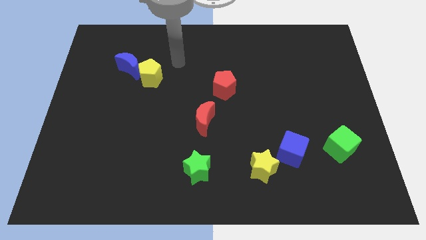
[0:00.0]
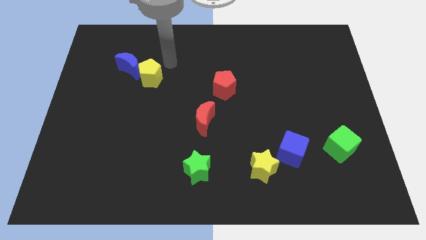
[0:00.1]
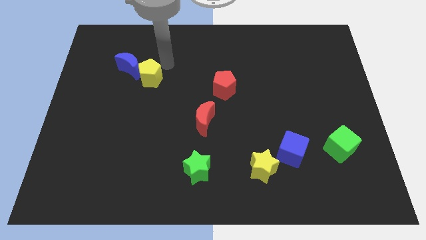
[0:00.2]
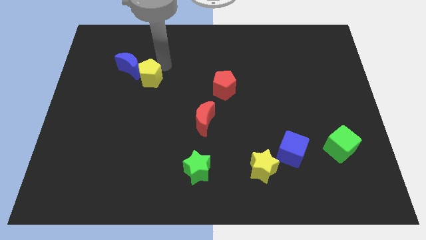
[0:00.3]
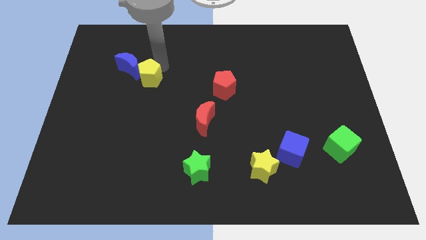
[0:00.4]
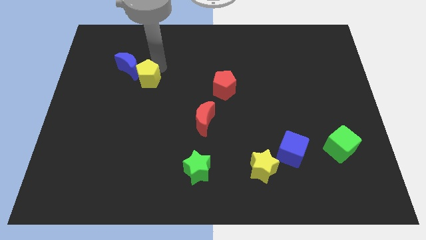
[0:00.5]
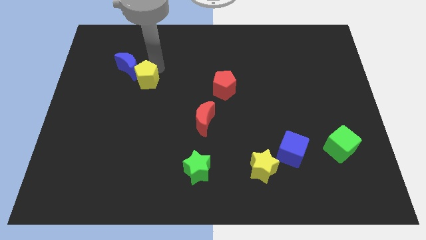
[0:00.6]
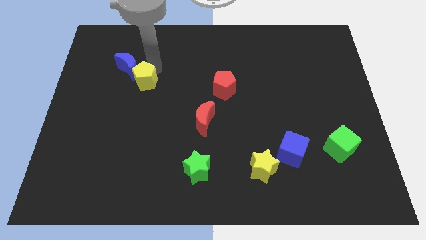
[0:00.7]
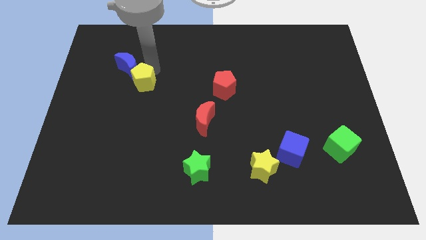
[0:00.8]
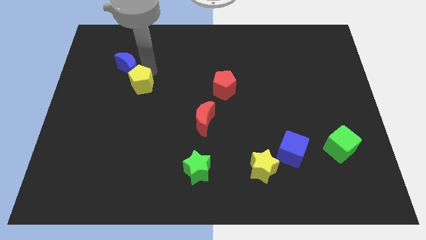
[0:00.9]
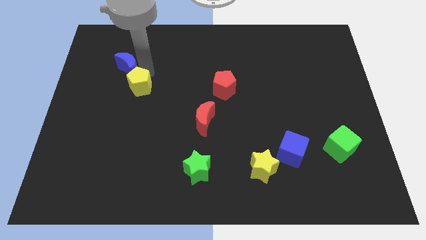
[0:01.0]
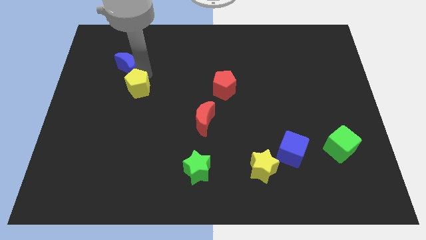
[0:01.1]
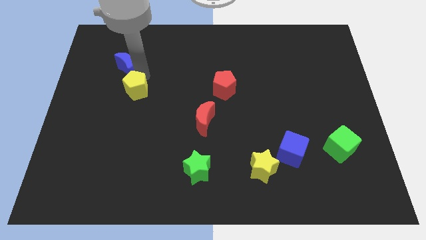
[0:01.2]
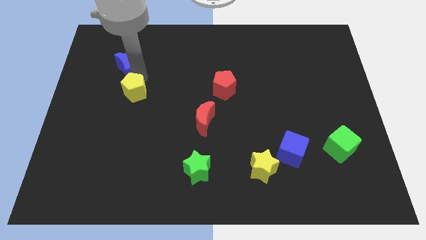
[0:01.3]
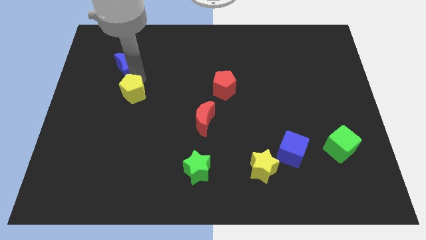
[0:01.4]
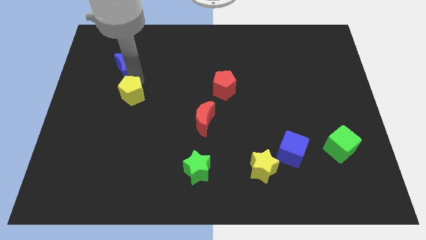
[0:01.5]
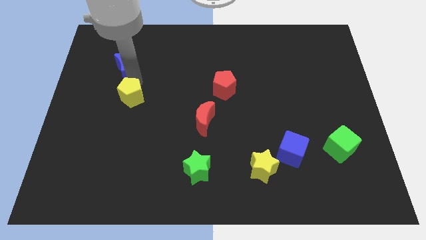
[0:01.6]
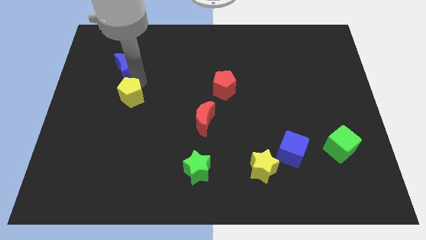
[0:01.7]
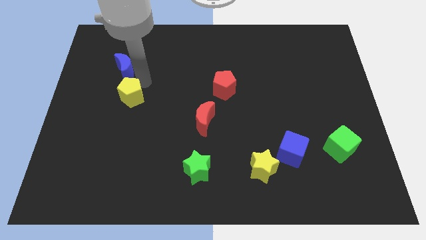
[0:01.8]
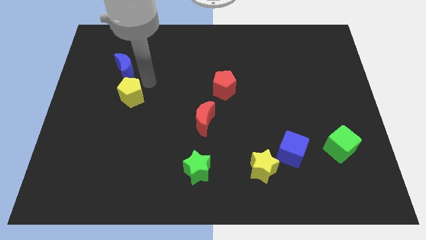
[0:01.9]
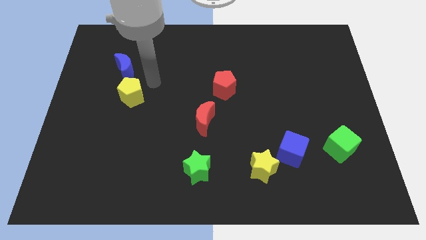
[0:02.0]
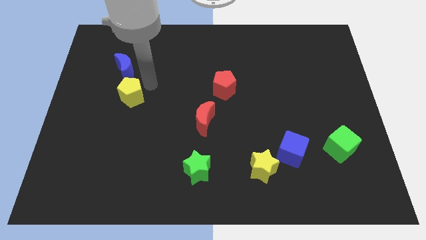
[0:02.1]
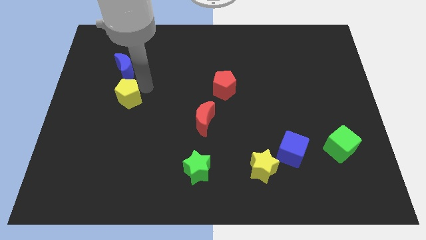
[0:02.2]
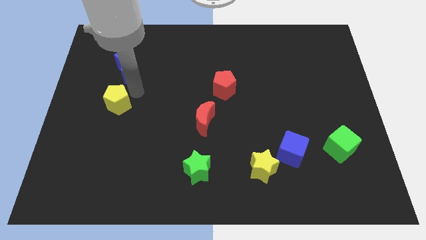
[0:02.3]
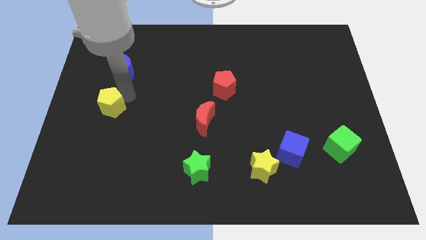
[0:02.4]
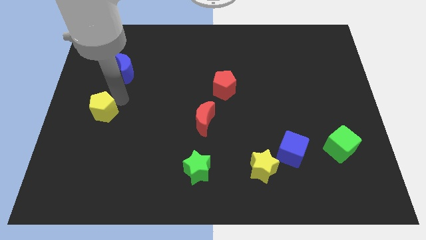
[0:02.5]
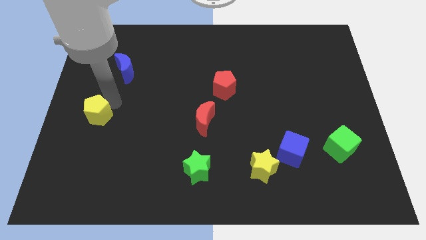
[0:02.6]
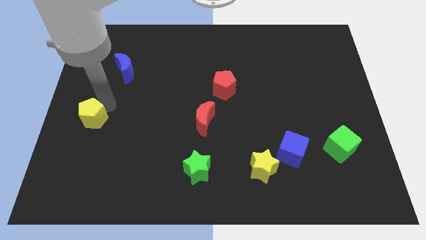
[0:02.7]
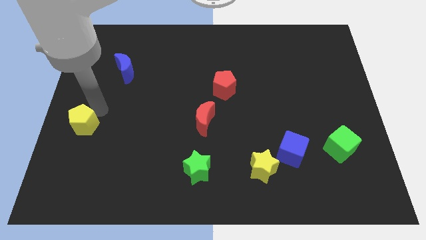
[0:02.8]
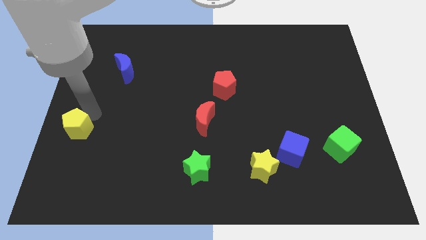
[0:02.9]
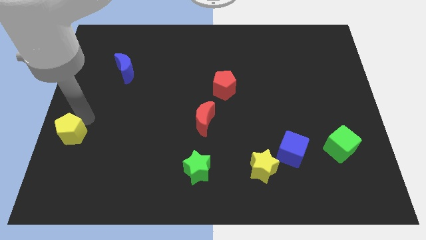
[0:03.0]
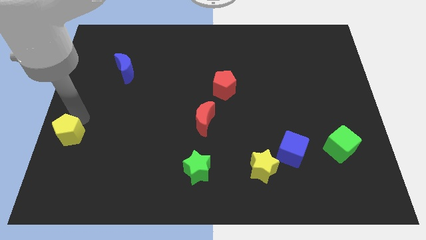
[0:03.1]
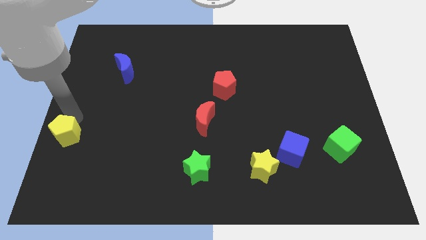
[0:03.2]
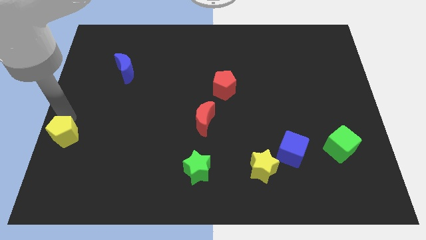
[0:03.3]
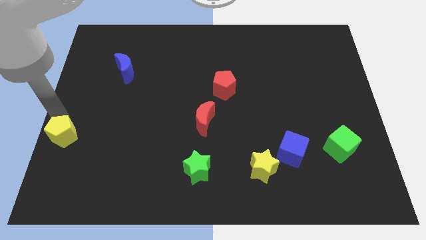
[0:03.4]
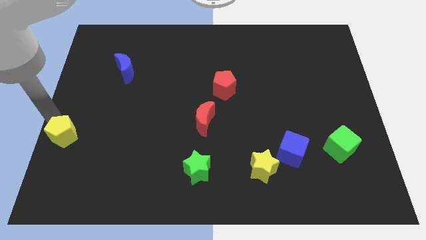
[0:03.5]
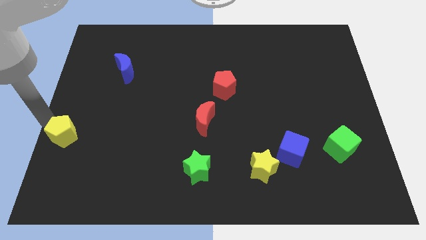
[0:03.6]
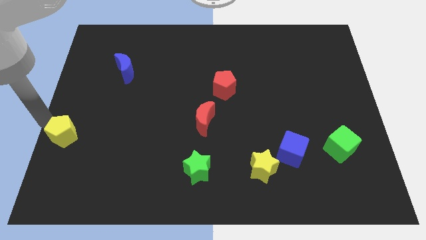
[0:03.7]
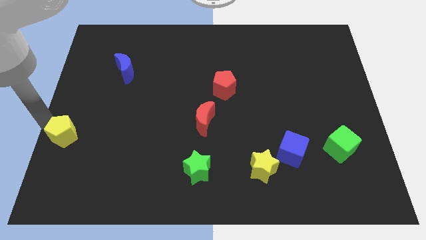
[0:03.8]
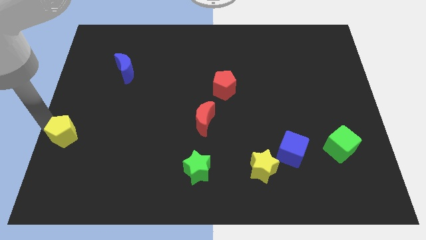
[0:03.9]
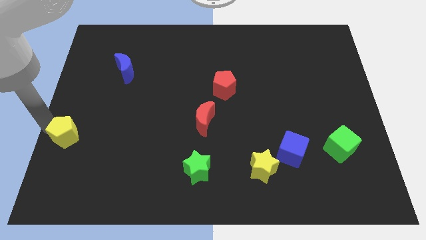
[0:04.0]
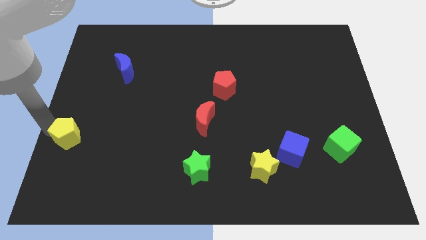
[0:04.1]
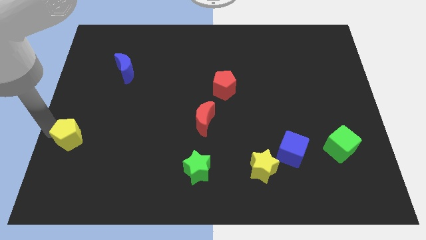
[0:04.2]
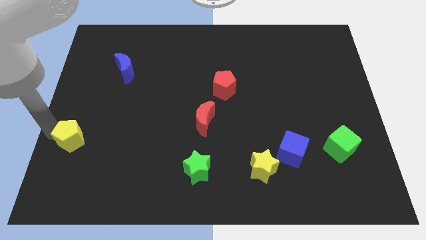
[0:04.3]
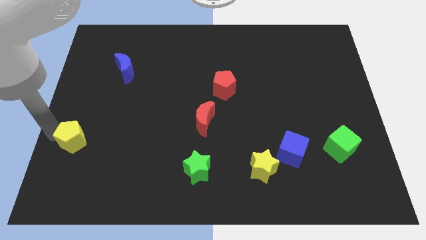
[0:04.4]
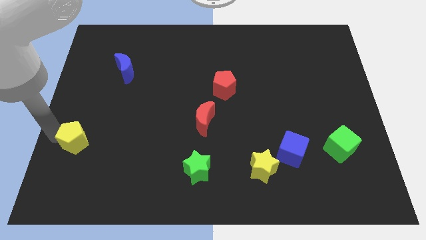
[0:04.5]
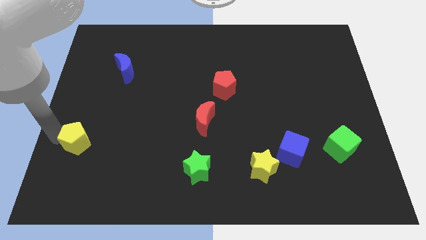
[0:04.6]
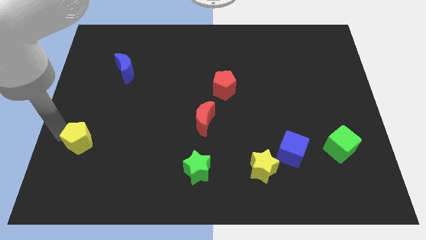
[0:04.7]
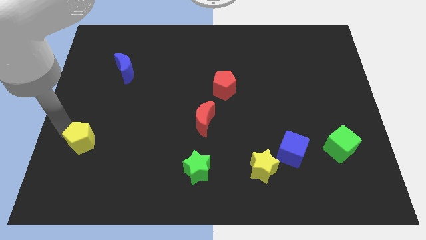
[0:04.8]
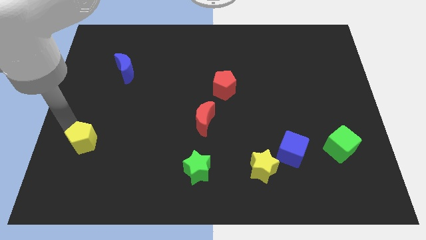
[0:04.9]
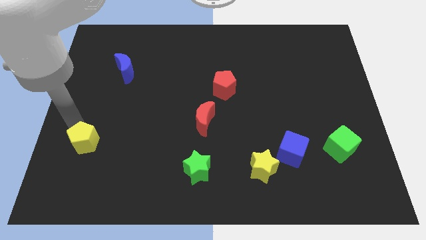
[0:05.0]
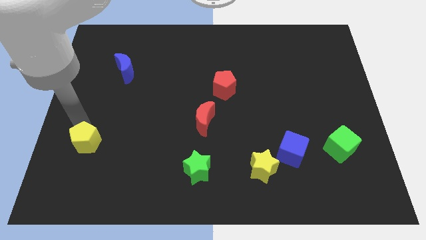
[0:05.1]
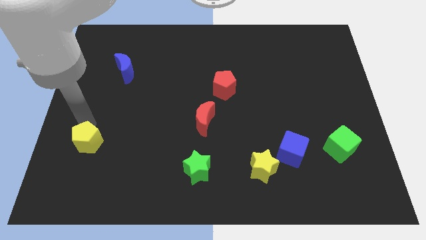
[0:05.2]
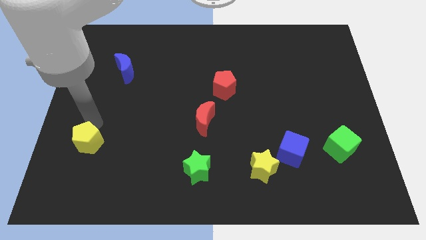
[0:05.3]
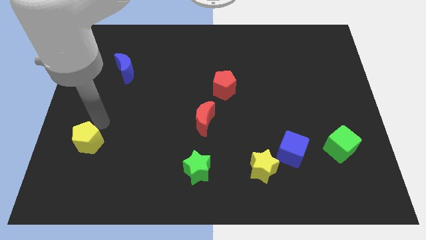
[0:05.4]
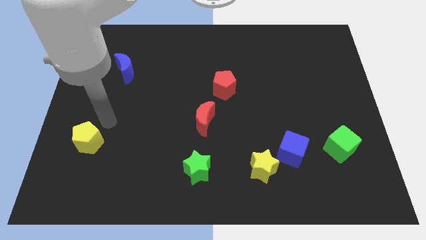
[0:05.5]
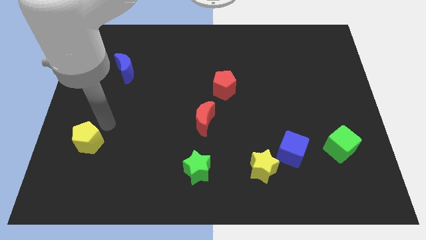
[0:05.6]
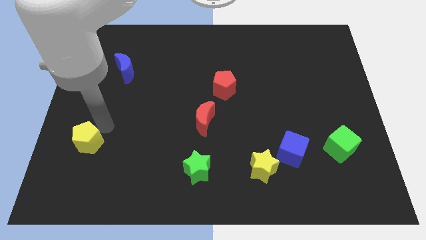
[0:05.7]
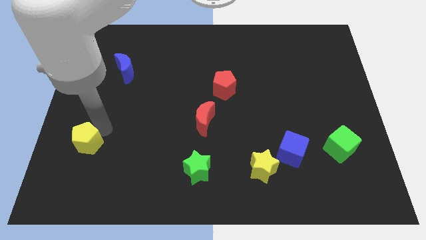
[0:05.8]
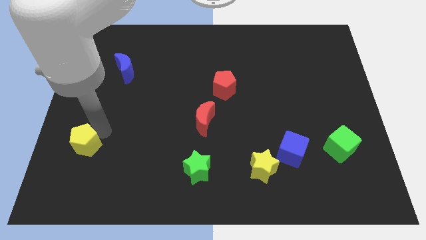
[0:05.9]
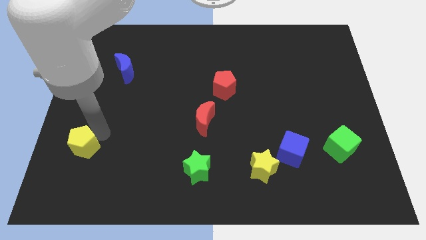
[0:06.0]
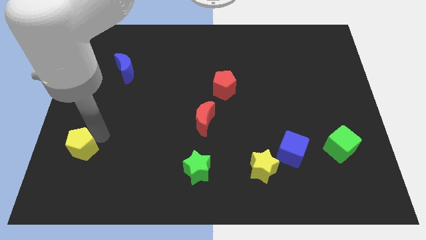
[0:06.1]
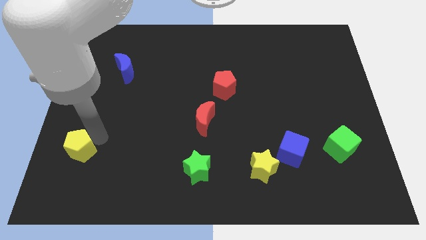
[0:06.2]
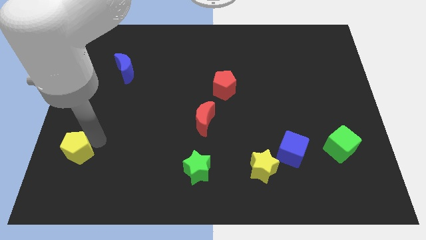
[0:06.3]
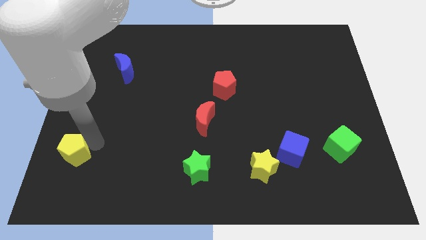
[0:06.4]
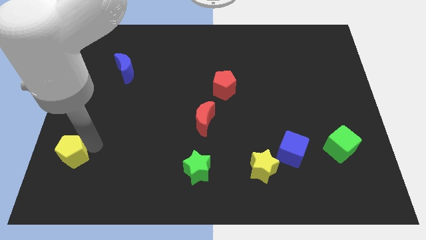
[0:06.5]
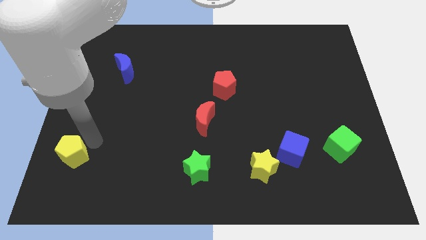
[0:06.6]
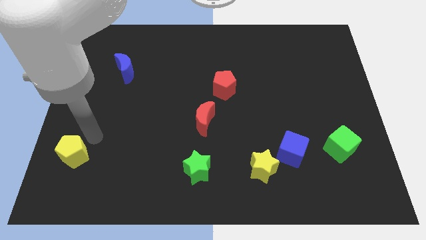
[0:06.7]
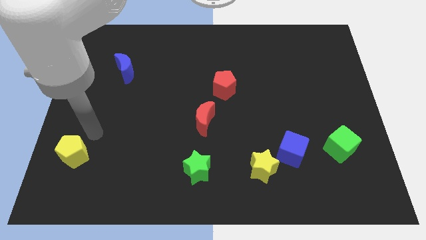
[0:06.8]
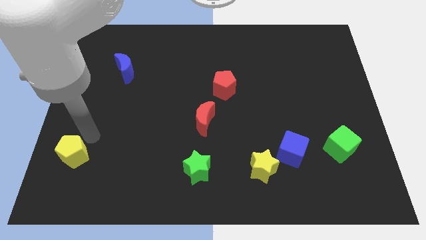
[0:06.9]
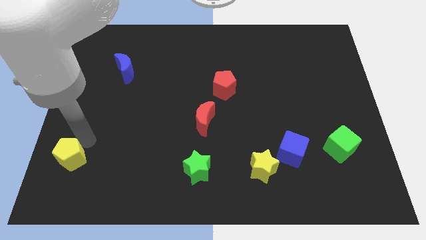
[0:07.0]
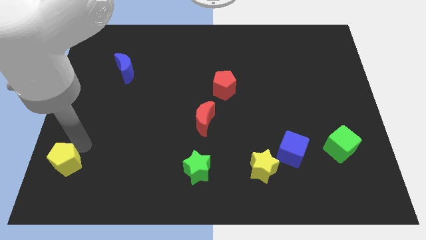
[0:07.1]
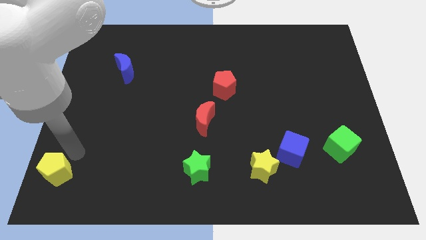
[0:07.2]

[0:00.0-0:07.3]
slide the yellow pentagon to the bottom left

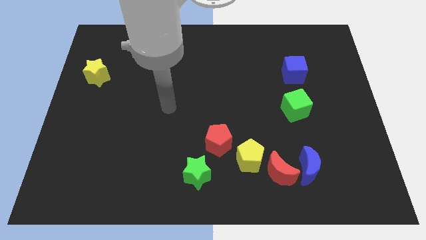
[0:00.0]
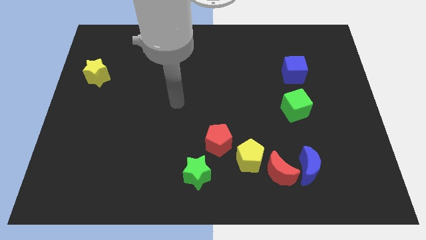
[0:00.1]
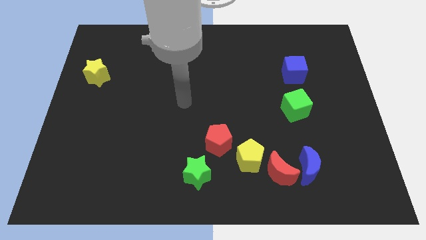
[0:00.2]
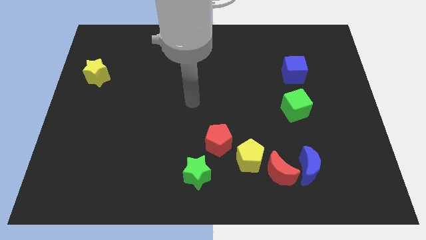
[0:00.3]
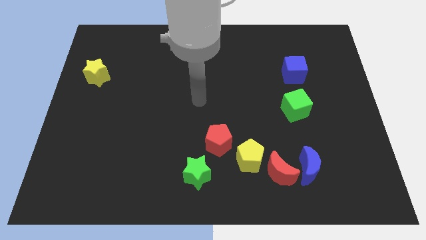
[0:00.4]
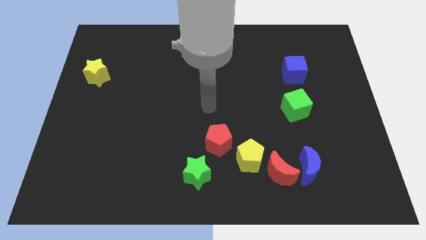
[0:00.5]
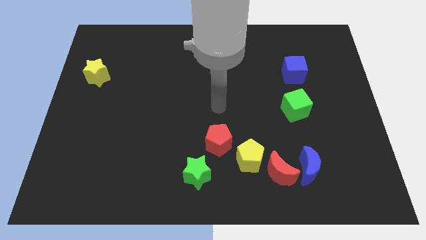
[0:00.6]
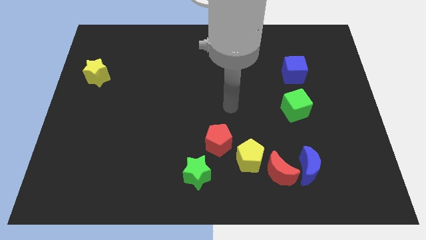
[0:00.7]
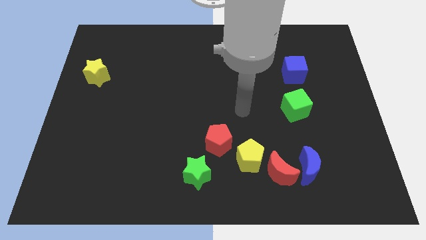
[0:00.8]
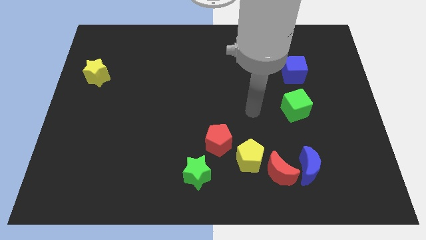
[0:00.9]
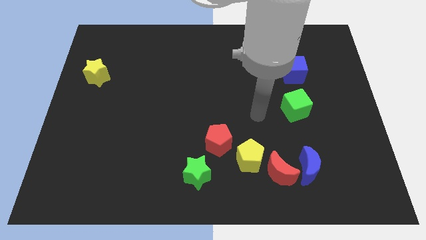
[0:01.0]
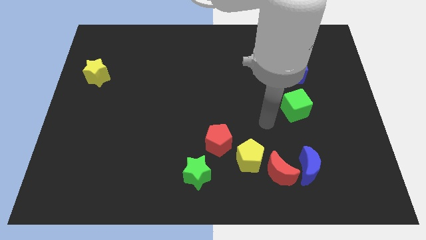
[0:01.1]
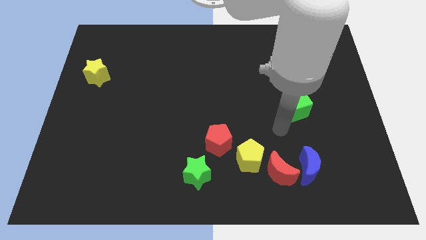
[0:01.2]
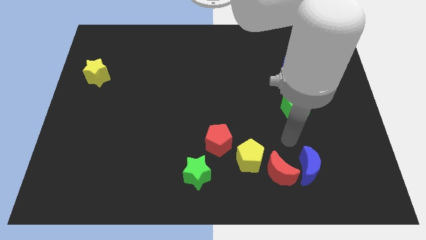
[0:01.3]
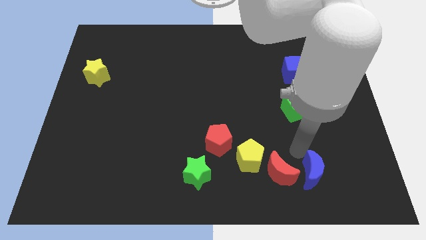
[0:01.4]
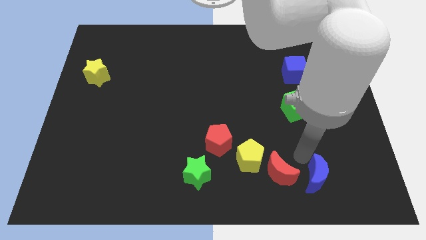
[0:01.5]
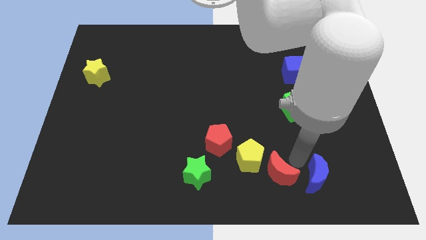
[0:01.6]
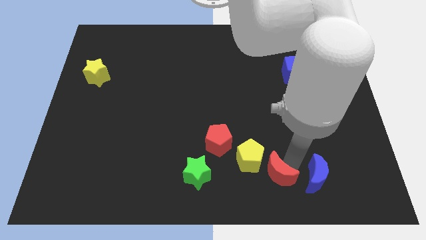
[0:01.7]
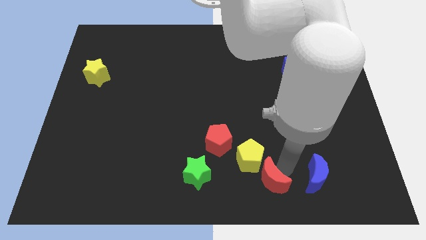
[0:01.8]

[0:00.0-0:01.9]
put the red moon to the bottom
